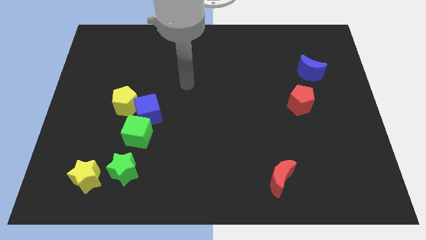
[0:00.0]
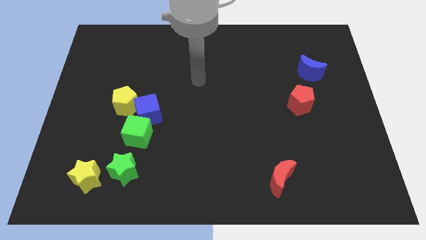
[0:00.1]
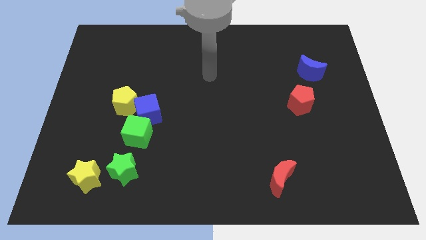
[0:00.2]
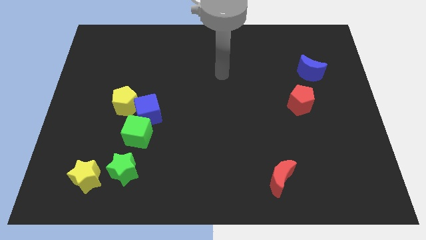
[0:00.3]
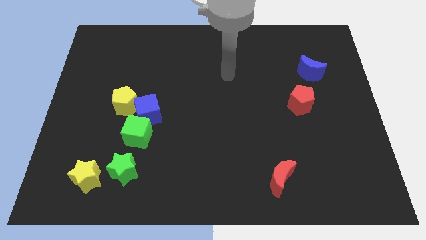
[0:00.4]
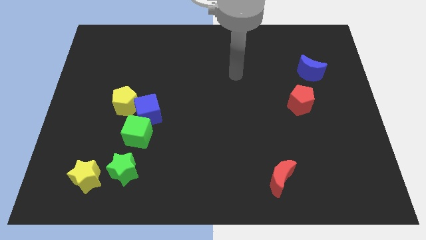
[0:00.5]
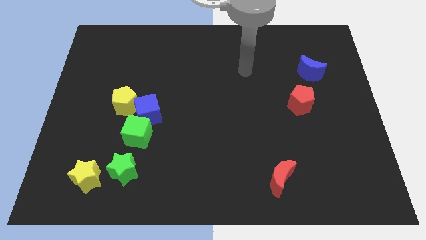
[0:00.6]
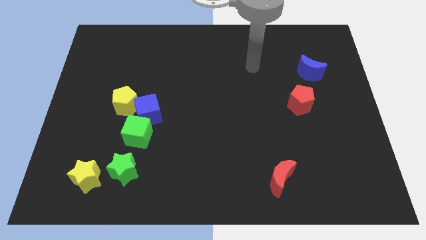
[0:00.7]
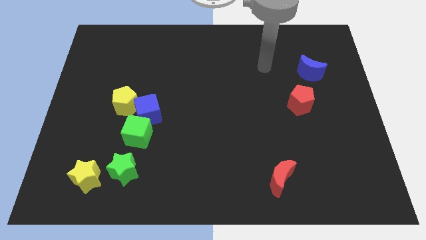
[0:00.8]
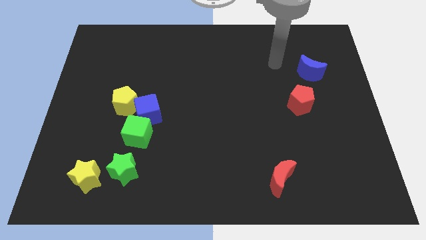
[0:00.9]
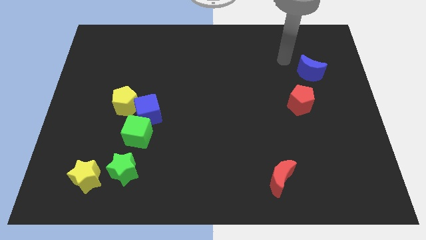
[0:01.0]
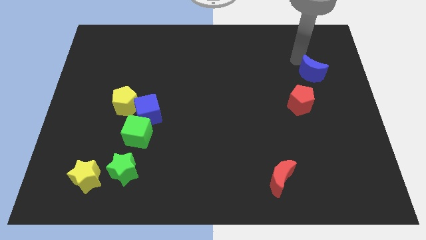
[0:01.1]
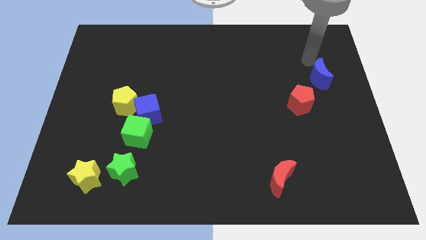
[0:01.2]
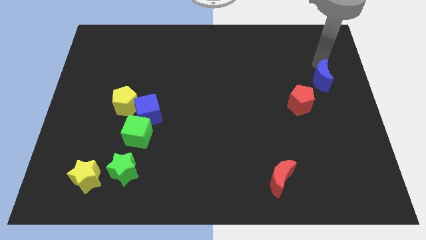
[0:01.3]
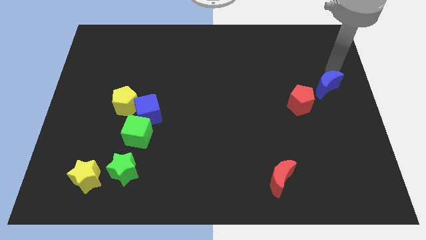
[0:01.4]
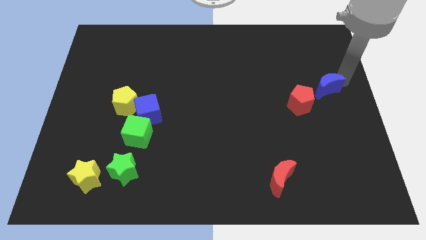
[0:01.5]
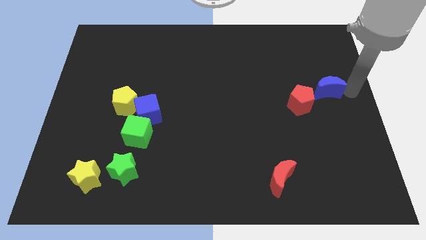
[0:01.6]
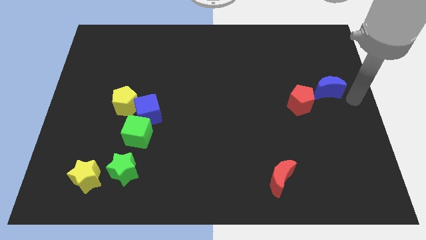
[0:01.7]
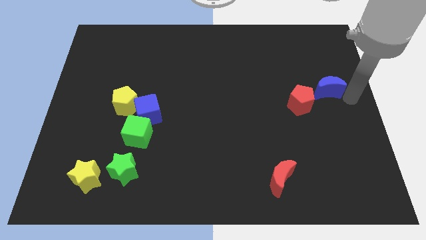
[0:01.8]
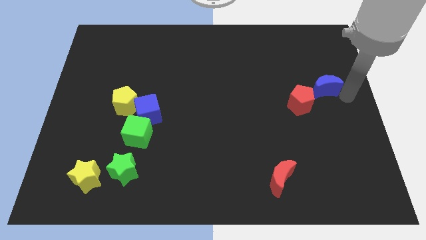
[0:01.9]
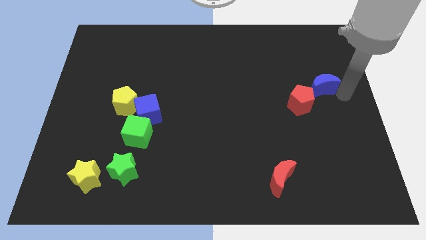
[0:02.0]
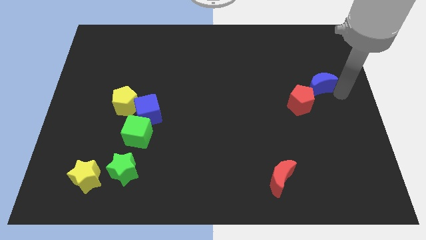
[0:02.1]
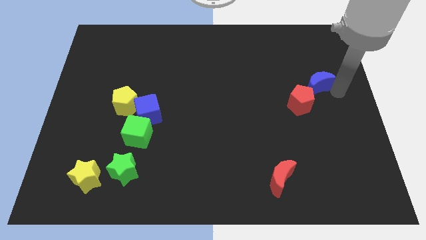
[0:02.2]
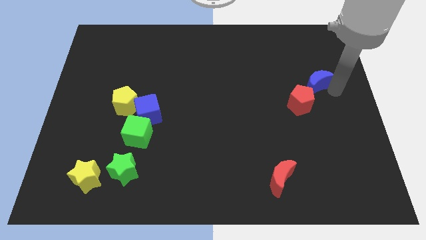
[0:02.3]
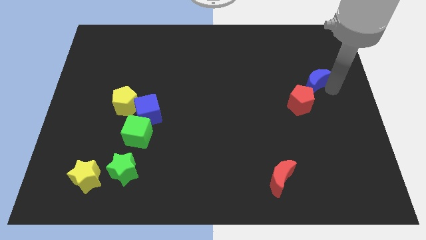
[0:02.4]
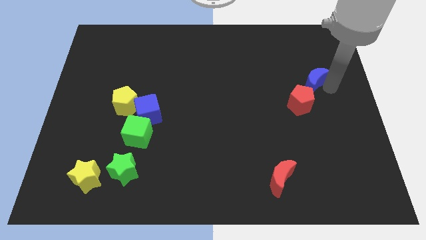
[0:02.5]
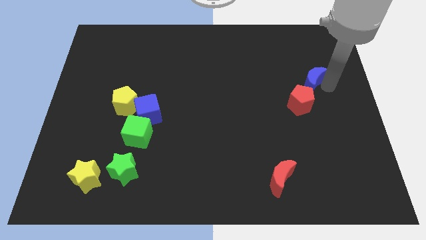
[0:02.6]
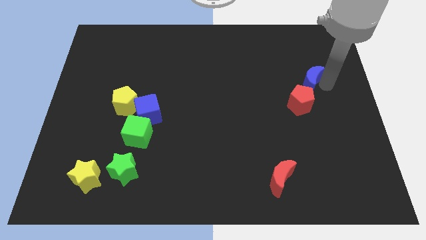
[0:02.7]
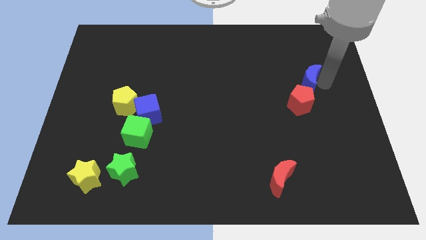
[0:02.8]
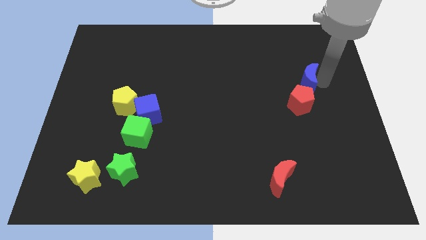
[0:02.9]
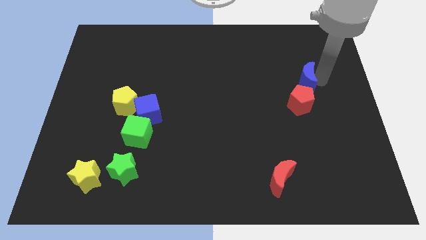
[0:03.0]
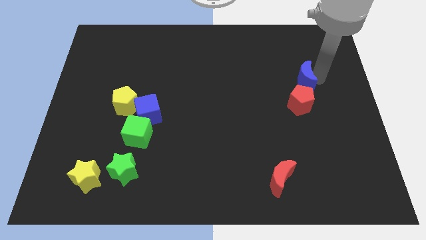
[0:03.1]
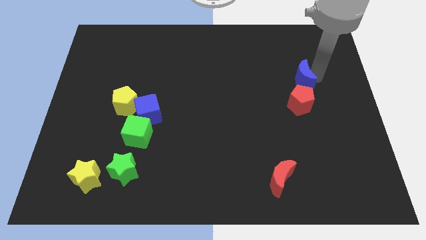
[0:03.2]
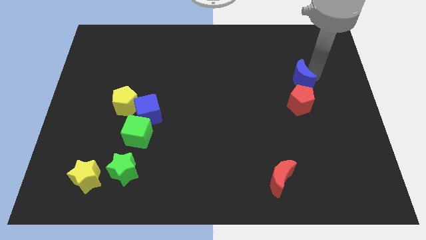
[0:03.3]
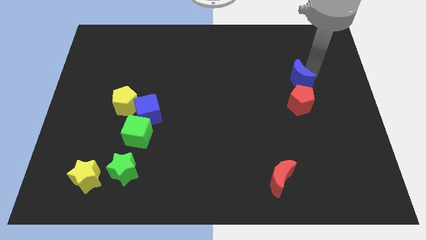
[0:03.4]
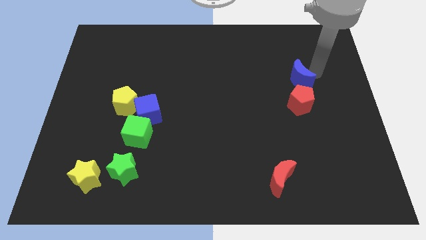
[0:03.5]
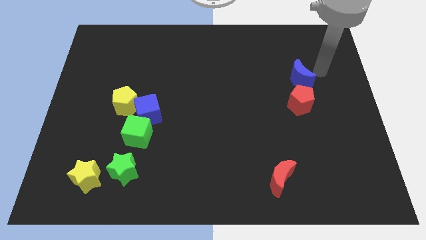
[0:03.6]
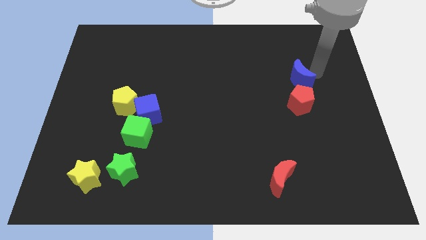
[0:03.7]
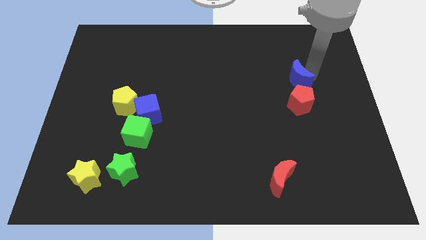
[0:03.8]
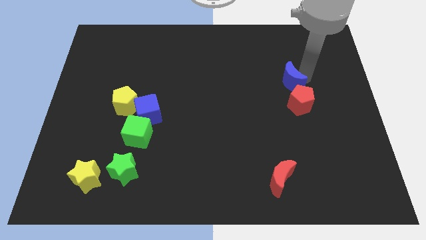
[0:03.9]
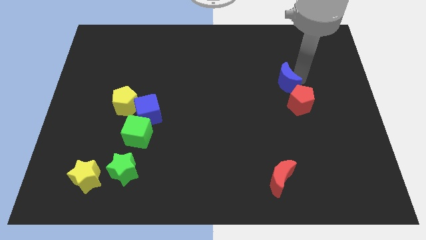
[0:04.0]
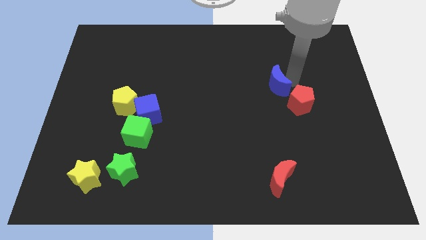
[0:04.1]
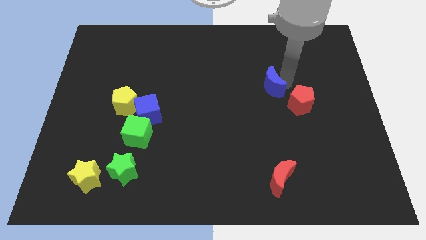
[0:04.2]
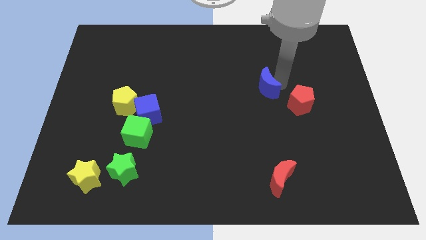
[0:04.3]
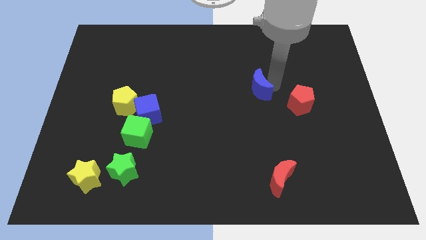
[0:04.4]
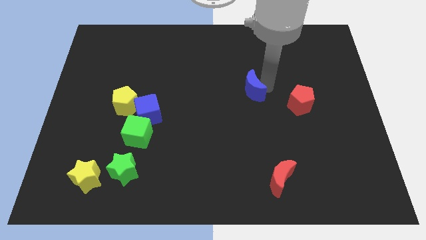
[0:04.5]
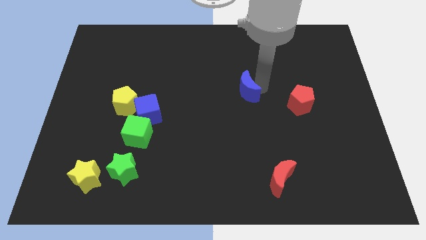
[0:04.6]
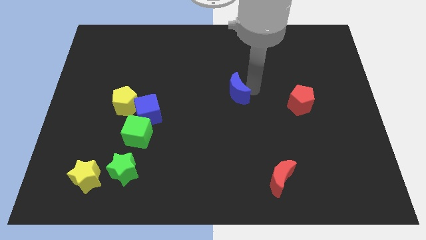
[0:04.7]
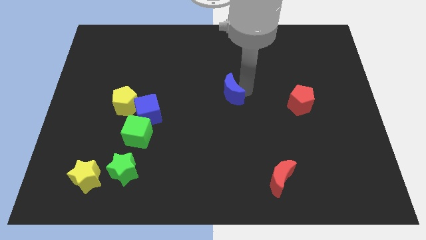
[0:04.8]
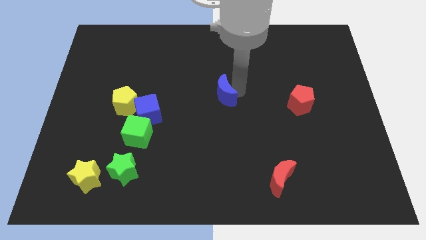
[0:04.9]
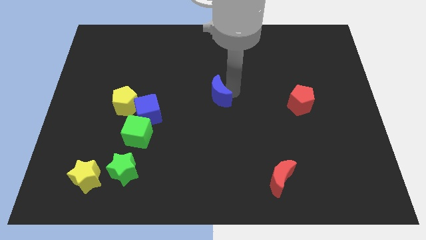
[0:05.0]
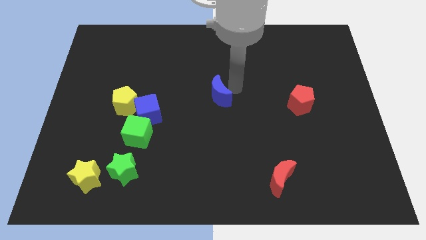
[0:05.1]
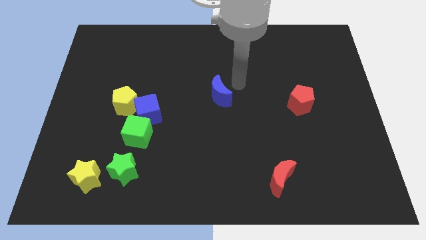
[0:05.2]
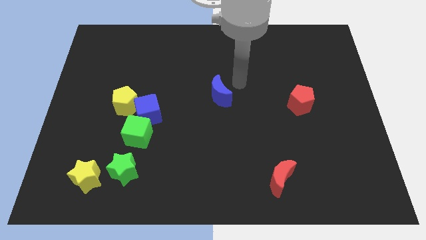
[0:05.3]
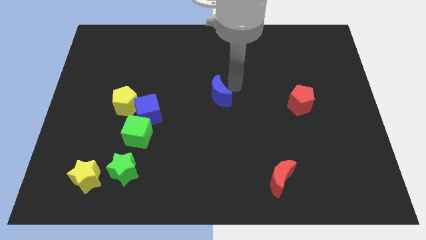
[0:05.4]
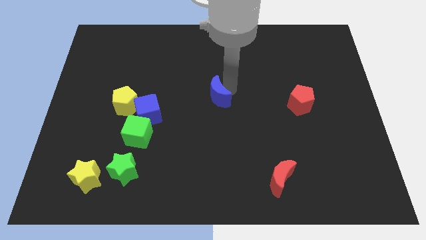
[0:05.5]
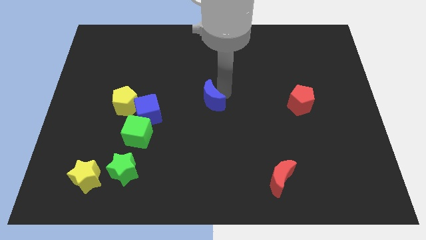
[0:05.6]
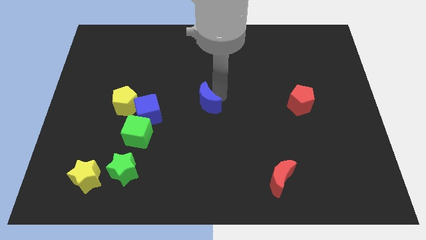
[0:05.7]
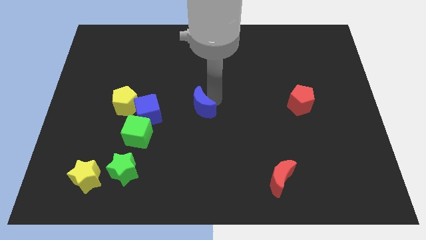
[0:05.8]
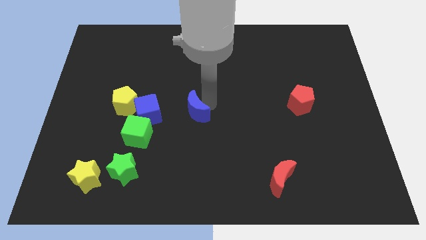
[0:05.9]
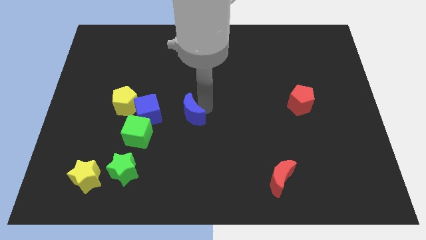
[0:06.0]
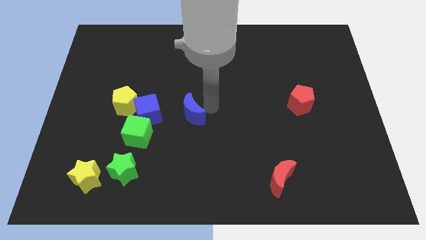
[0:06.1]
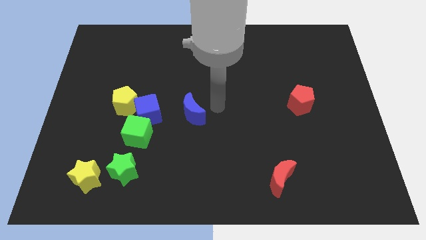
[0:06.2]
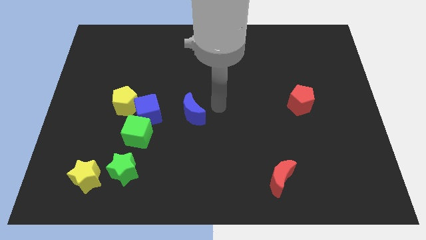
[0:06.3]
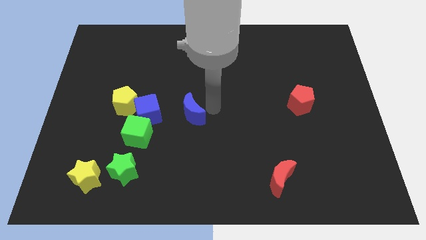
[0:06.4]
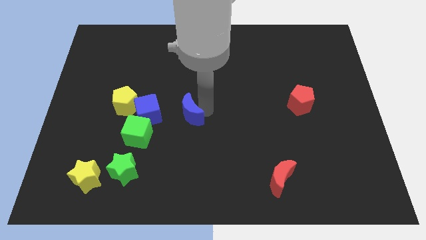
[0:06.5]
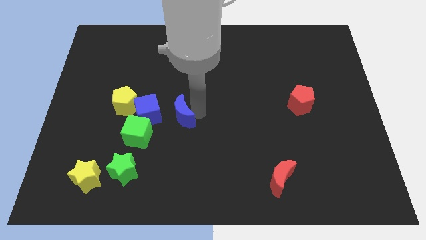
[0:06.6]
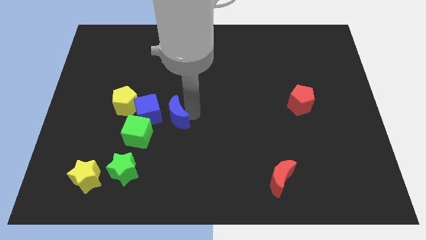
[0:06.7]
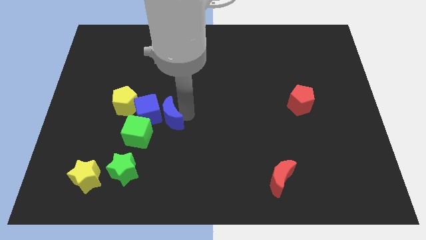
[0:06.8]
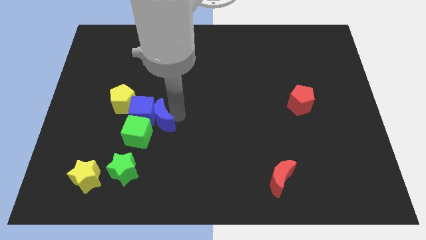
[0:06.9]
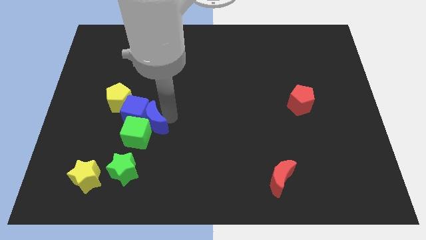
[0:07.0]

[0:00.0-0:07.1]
put the blue moon next to the green cube

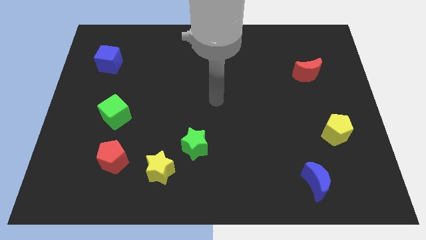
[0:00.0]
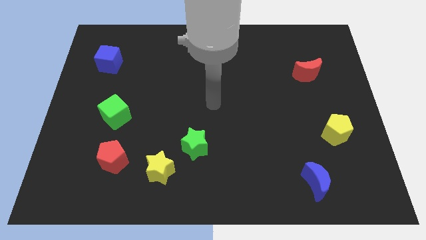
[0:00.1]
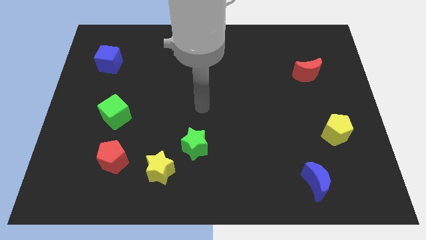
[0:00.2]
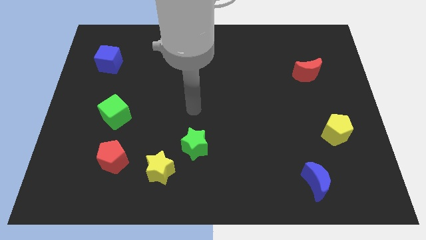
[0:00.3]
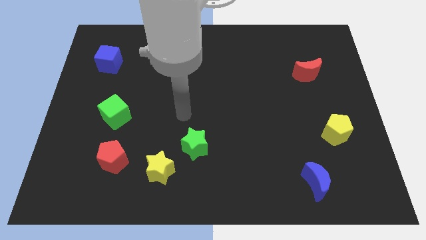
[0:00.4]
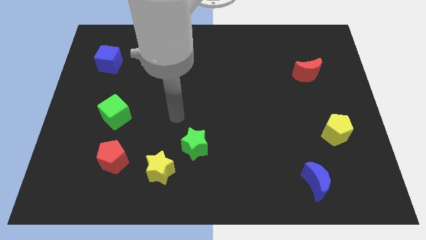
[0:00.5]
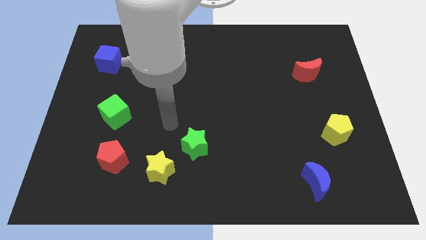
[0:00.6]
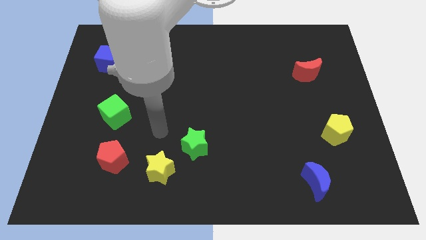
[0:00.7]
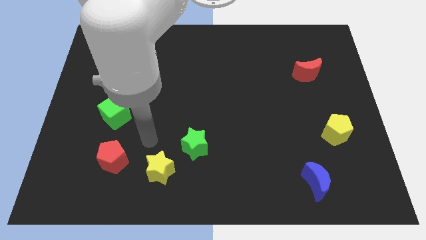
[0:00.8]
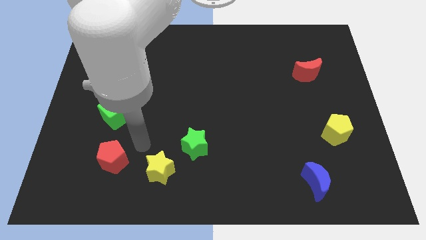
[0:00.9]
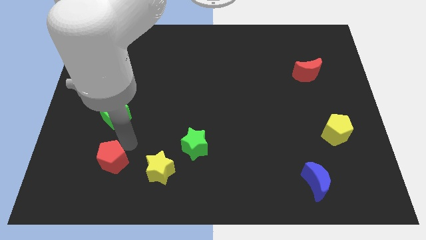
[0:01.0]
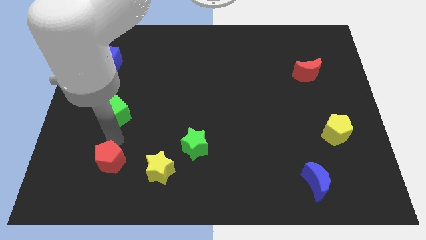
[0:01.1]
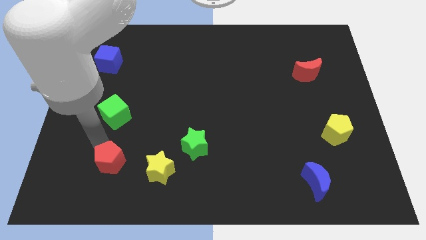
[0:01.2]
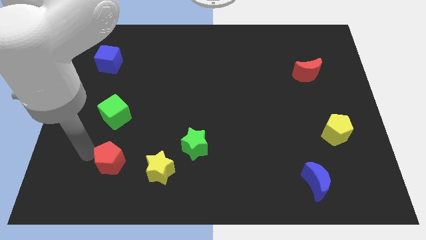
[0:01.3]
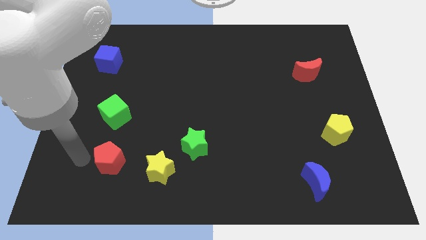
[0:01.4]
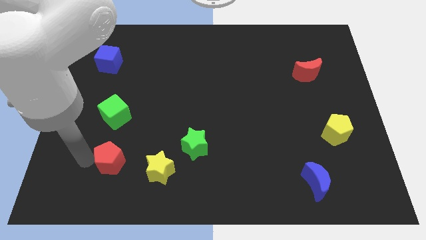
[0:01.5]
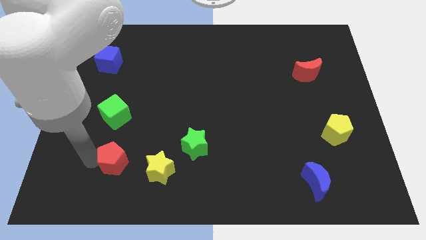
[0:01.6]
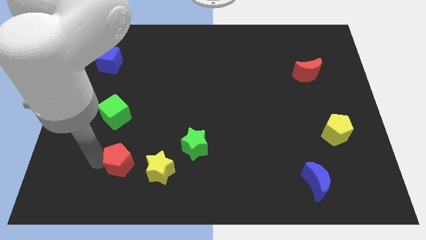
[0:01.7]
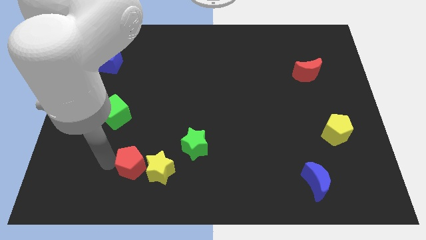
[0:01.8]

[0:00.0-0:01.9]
move the red pentagon close to the yellow star
